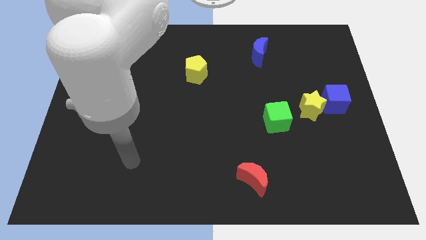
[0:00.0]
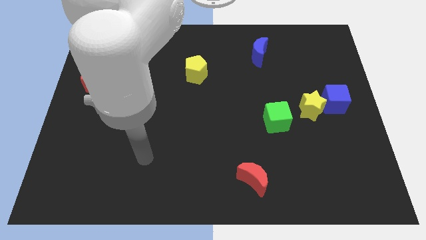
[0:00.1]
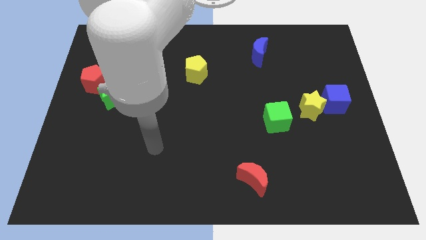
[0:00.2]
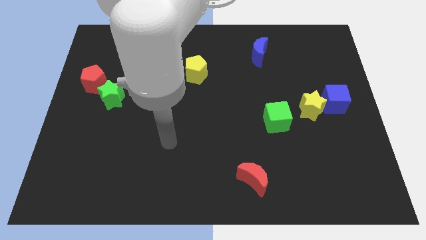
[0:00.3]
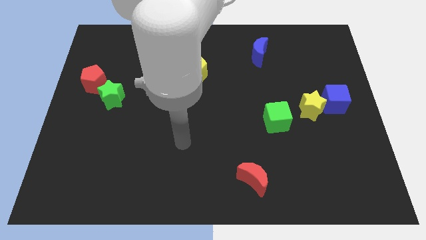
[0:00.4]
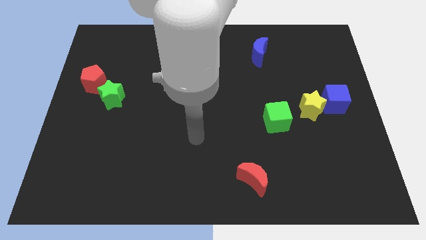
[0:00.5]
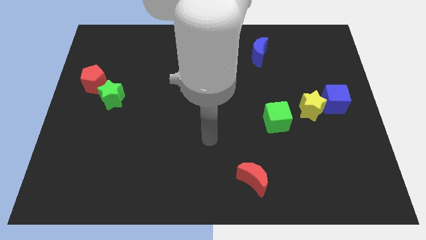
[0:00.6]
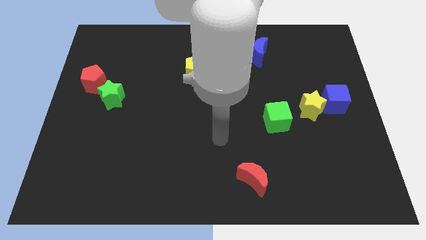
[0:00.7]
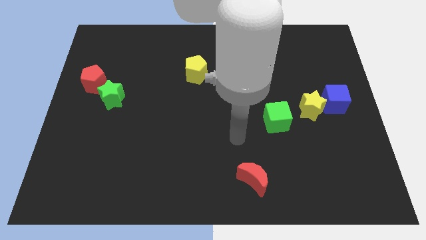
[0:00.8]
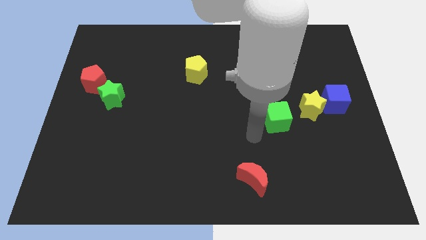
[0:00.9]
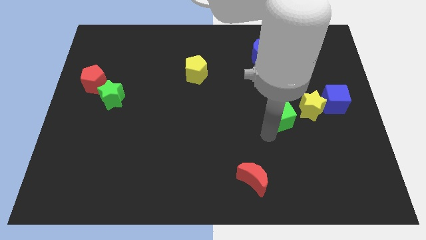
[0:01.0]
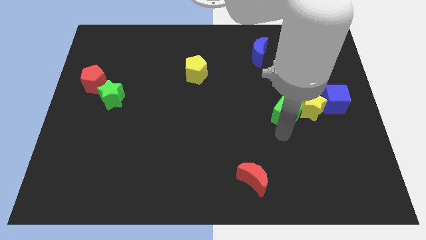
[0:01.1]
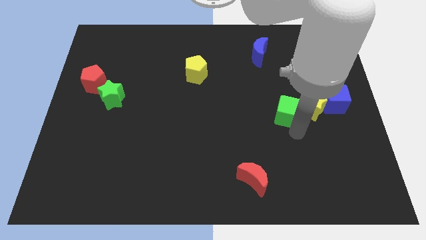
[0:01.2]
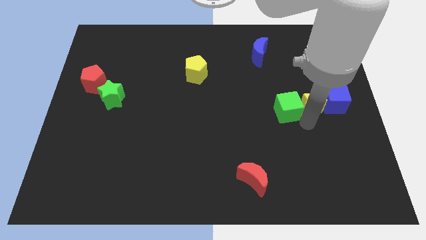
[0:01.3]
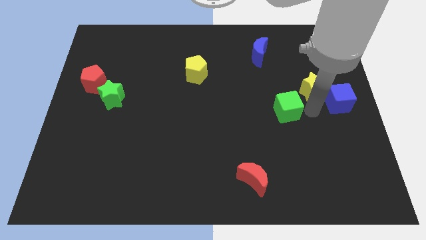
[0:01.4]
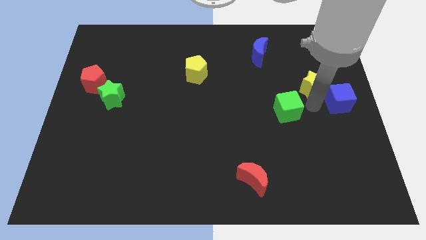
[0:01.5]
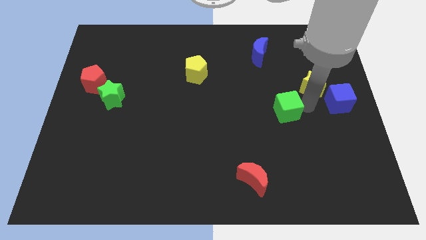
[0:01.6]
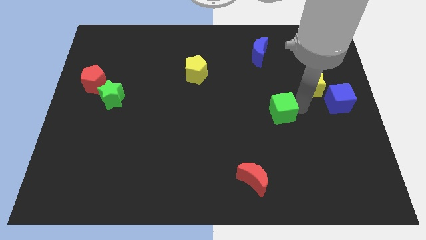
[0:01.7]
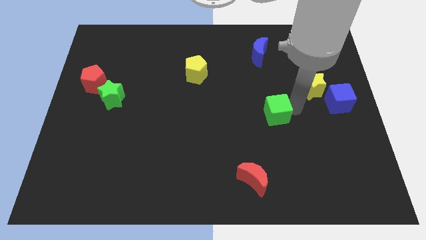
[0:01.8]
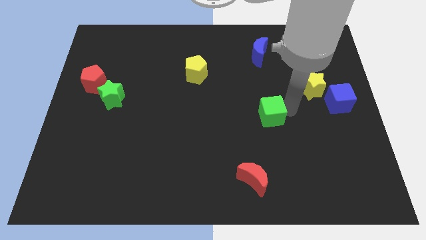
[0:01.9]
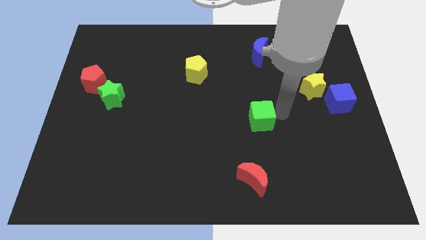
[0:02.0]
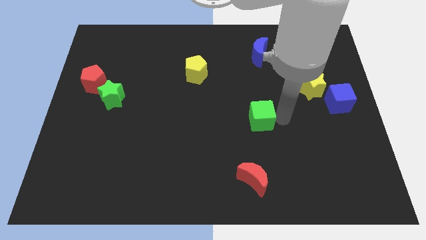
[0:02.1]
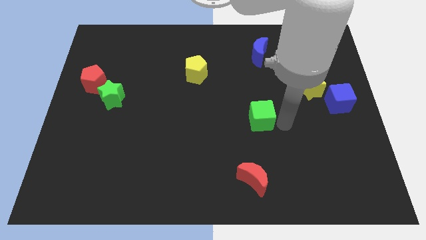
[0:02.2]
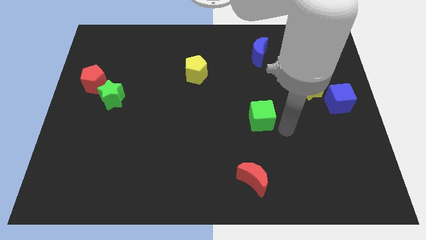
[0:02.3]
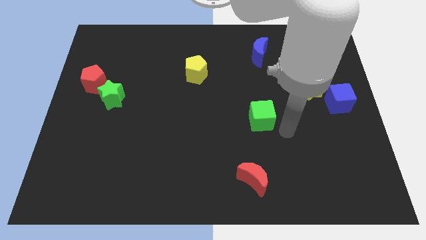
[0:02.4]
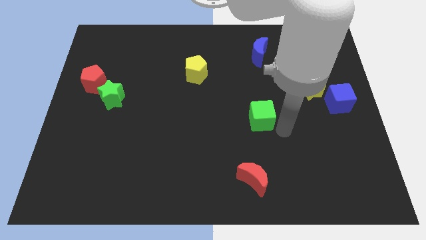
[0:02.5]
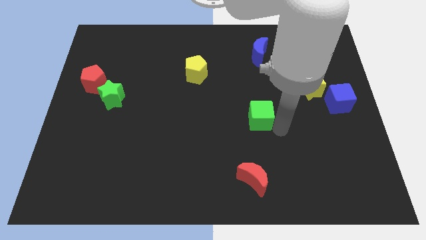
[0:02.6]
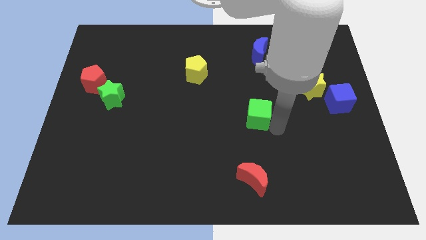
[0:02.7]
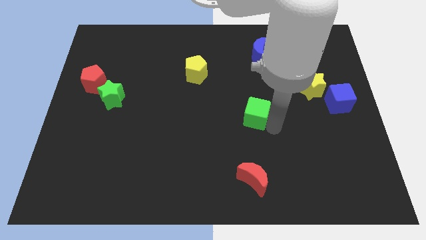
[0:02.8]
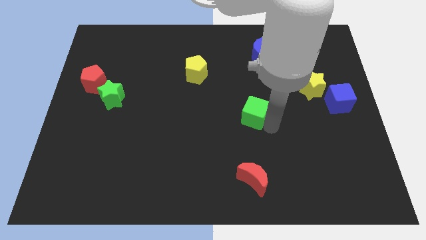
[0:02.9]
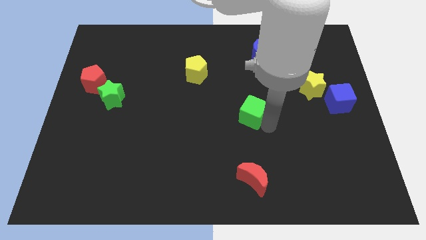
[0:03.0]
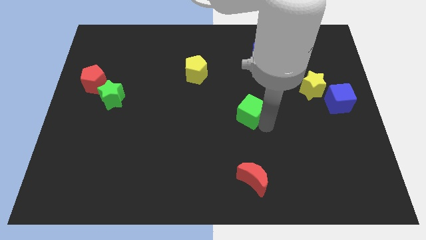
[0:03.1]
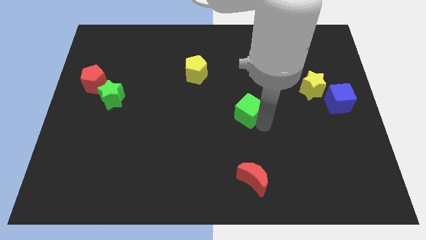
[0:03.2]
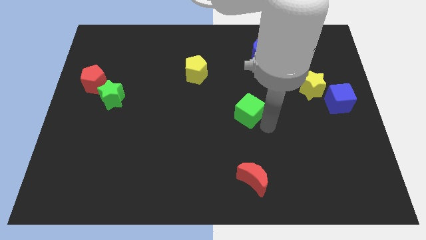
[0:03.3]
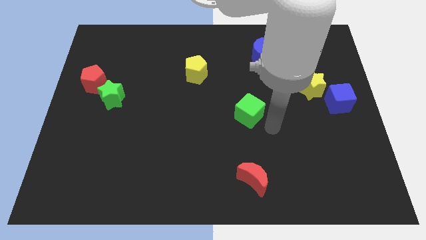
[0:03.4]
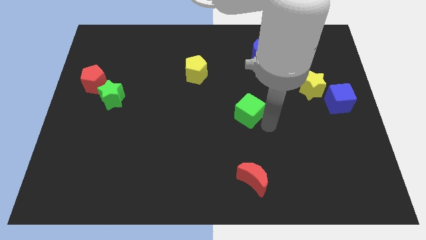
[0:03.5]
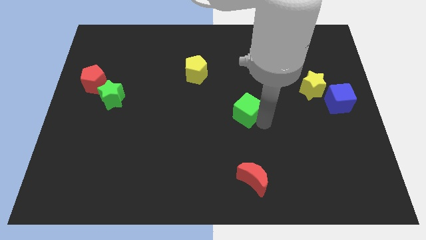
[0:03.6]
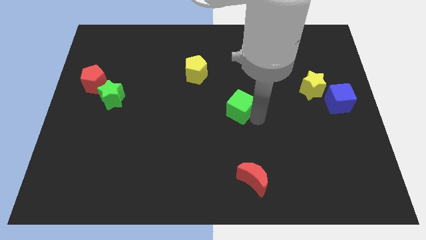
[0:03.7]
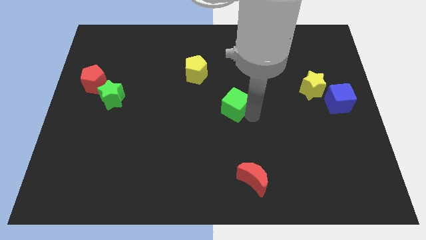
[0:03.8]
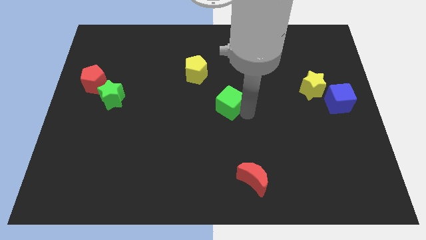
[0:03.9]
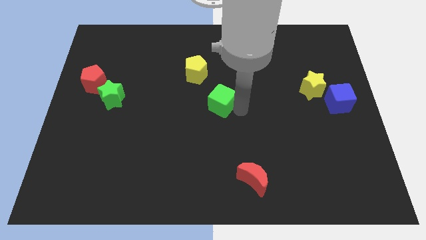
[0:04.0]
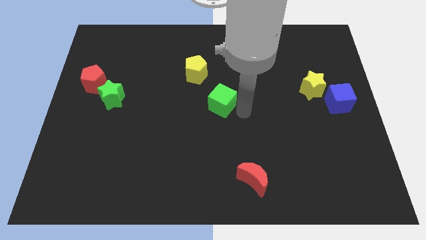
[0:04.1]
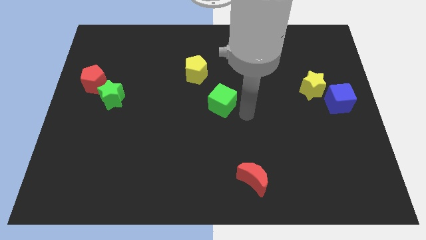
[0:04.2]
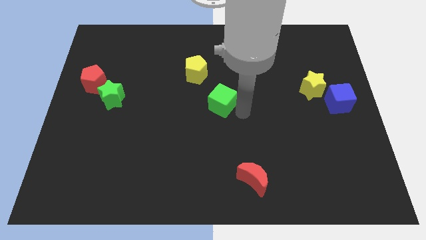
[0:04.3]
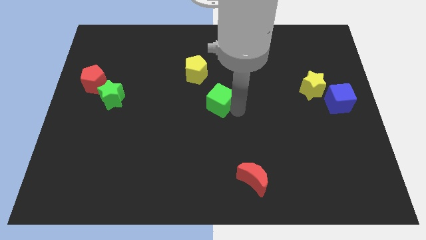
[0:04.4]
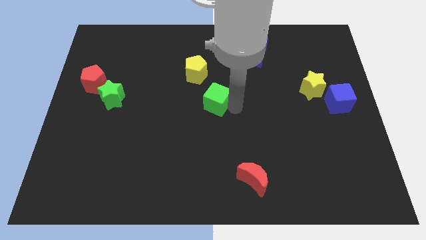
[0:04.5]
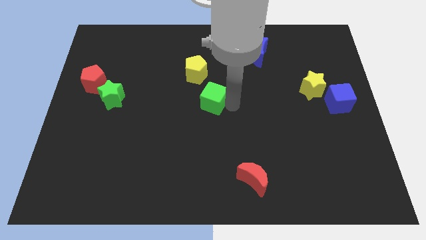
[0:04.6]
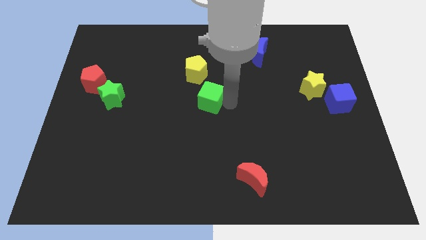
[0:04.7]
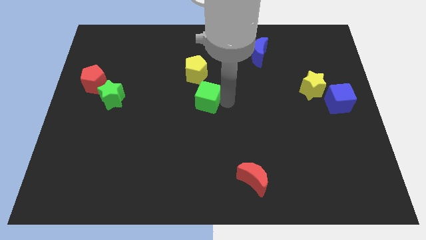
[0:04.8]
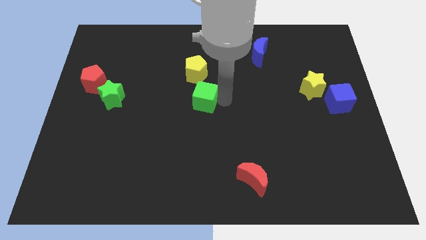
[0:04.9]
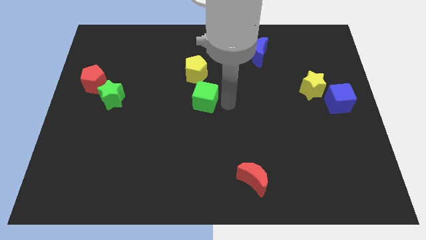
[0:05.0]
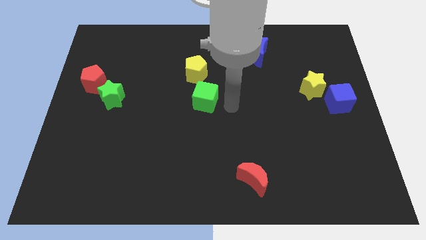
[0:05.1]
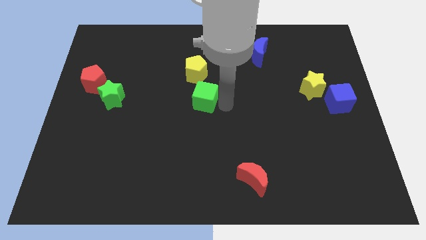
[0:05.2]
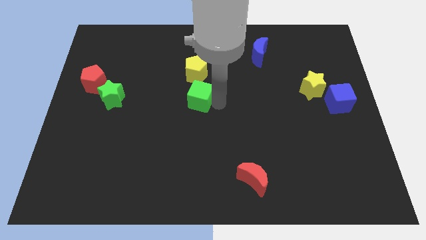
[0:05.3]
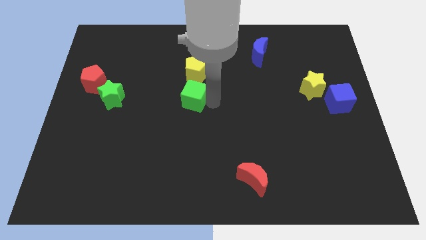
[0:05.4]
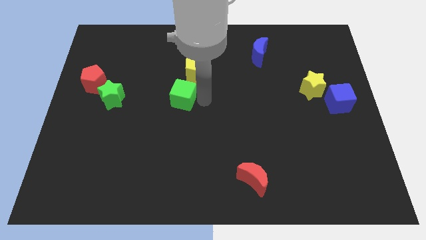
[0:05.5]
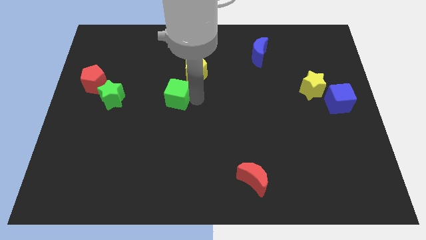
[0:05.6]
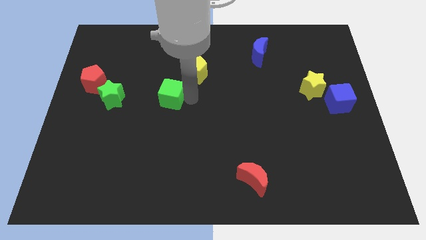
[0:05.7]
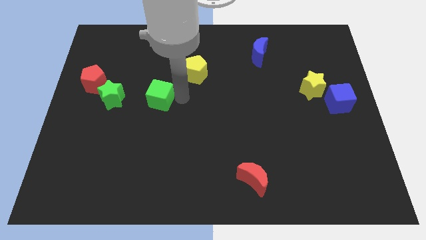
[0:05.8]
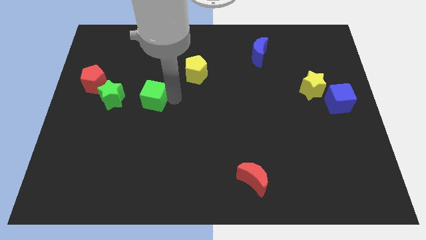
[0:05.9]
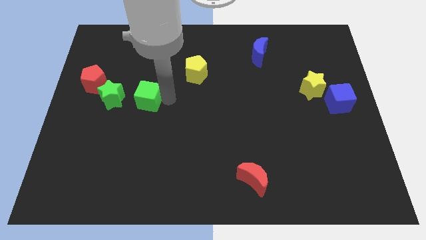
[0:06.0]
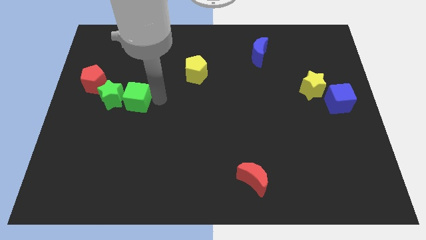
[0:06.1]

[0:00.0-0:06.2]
push the green cube close to the green star

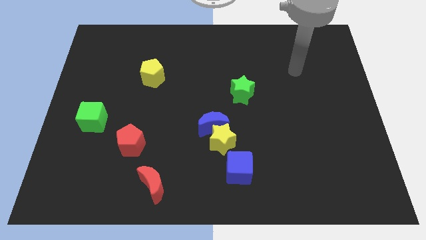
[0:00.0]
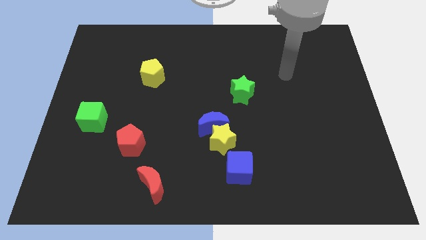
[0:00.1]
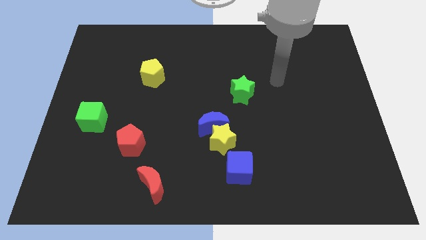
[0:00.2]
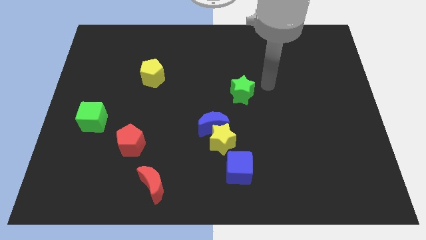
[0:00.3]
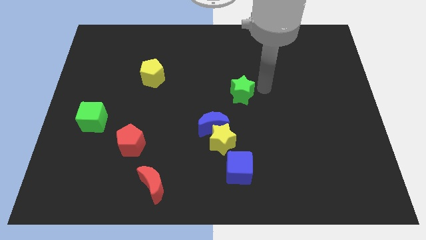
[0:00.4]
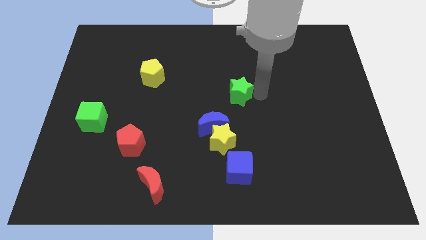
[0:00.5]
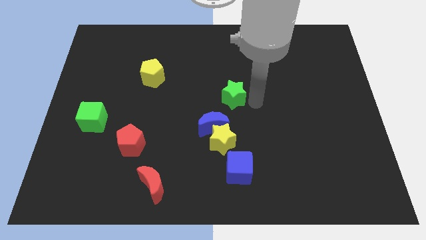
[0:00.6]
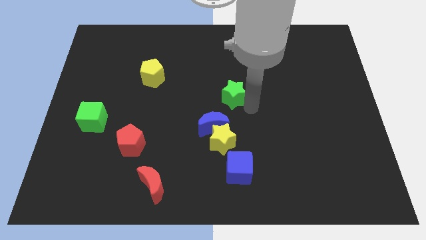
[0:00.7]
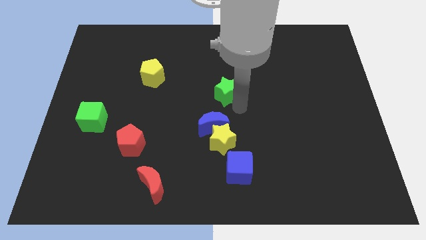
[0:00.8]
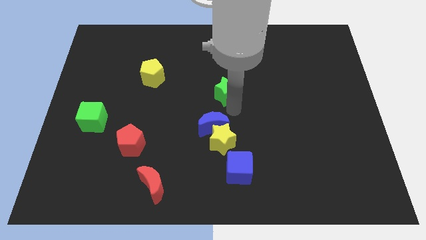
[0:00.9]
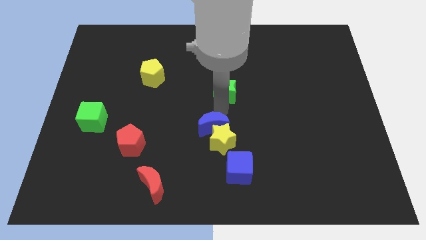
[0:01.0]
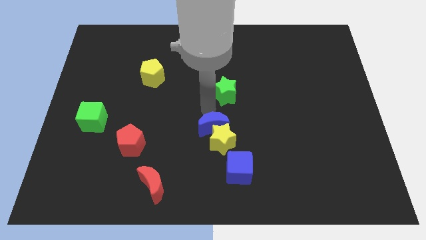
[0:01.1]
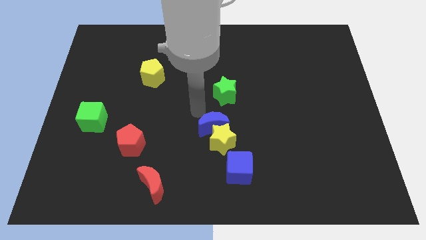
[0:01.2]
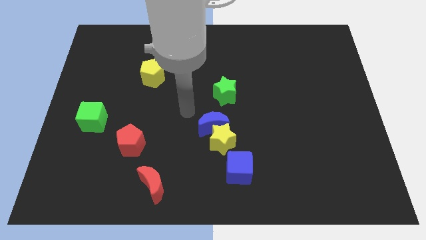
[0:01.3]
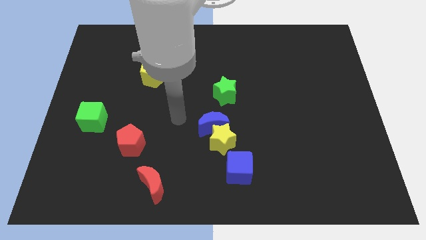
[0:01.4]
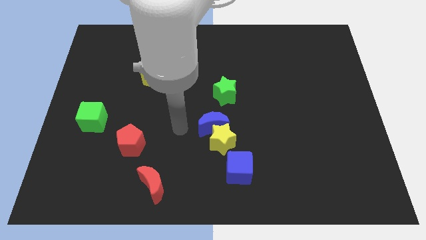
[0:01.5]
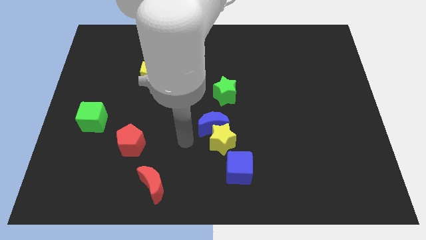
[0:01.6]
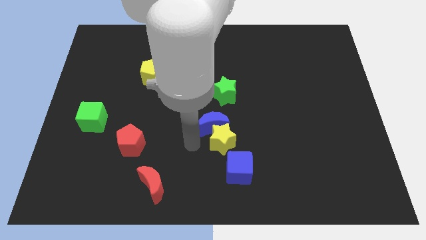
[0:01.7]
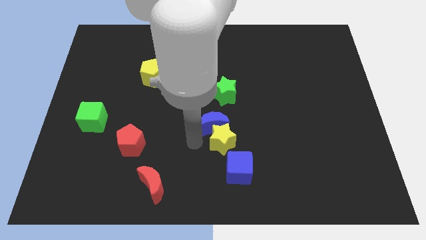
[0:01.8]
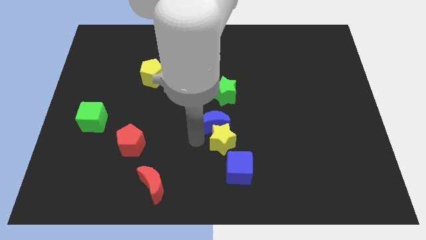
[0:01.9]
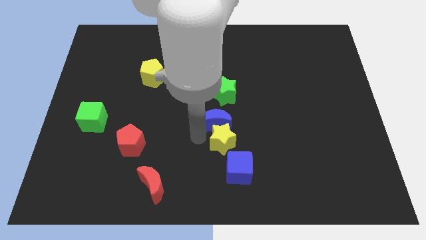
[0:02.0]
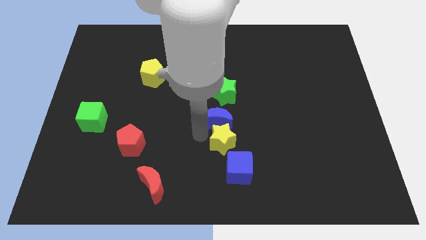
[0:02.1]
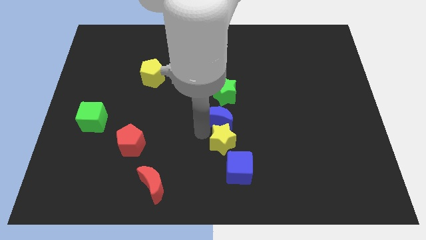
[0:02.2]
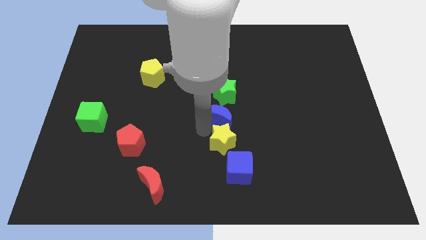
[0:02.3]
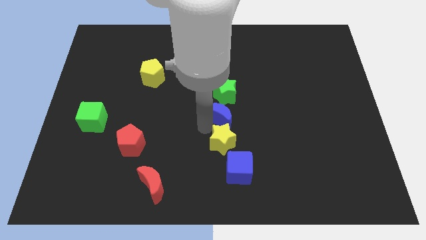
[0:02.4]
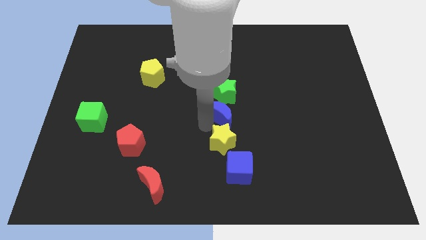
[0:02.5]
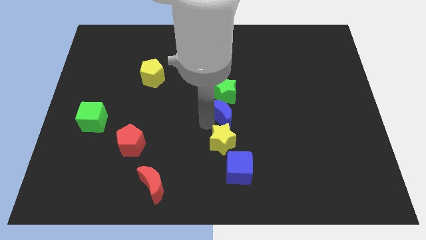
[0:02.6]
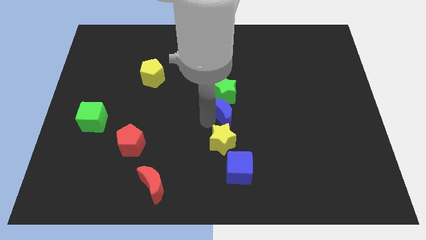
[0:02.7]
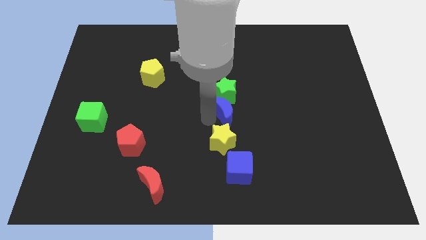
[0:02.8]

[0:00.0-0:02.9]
slide the blue moon to the green star
